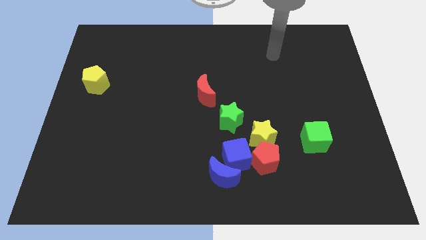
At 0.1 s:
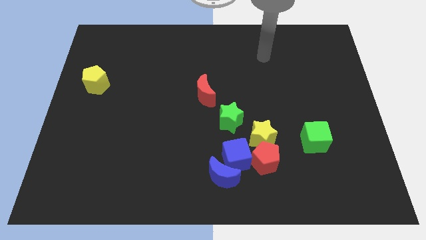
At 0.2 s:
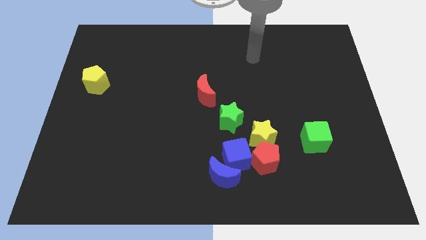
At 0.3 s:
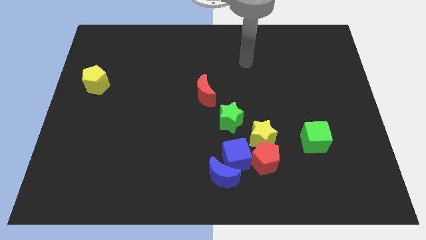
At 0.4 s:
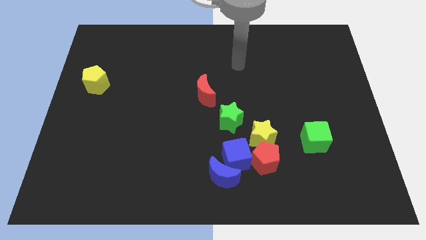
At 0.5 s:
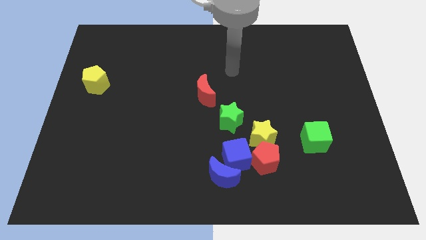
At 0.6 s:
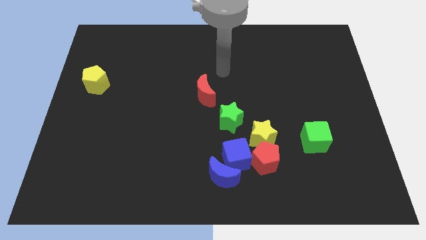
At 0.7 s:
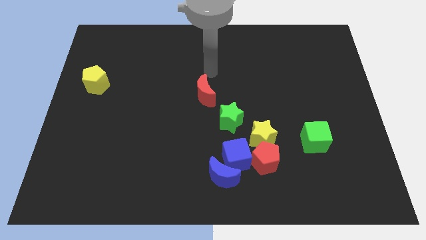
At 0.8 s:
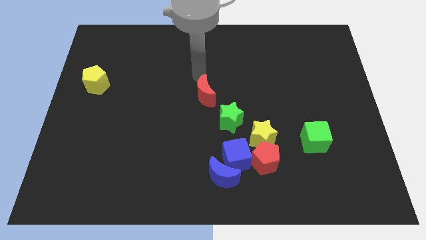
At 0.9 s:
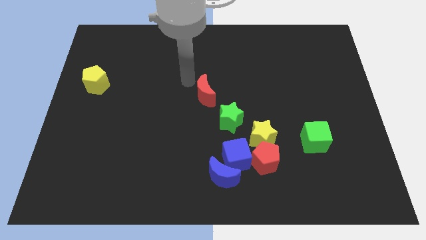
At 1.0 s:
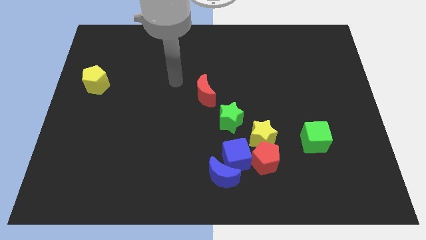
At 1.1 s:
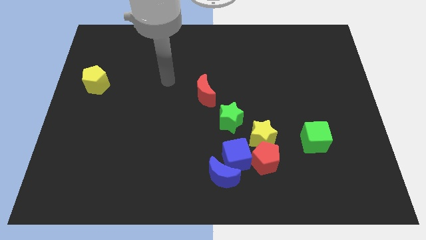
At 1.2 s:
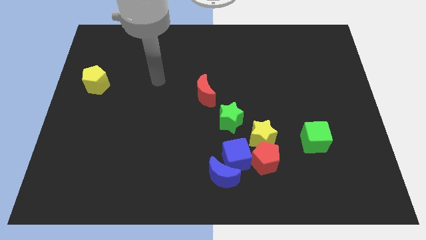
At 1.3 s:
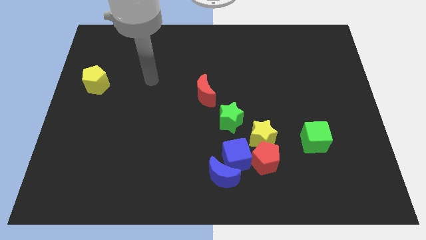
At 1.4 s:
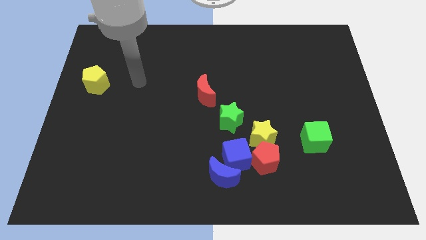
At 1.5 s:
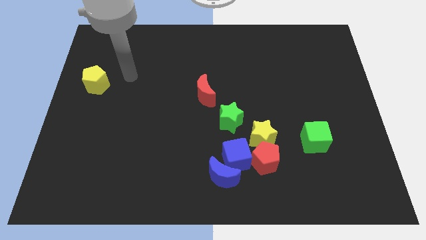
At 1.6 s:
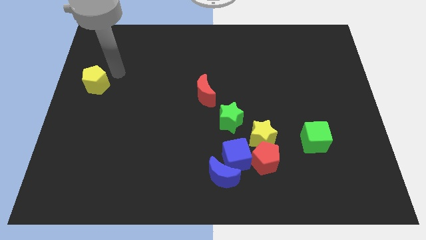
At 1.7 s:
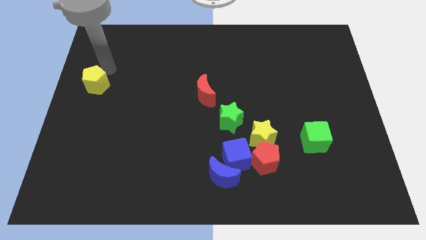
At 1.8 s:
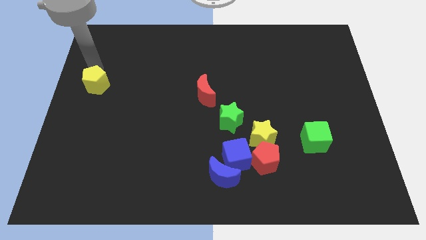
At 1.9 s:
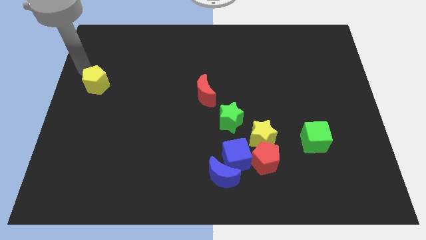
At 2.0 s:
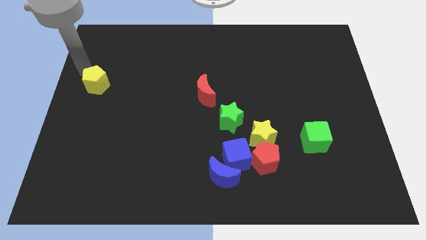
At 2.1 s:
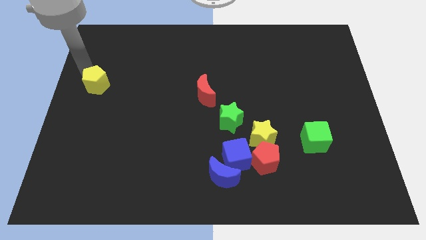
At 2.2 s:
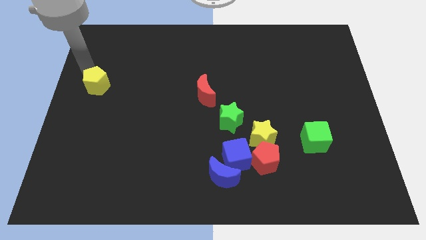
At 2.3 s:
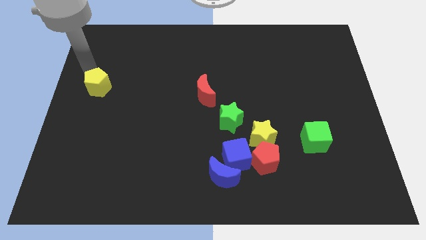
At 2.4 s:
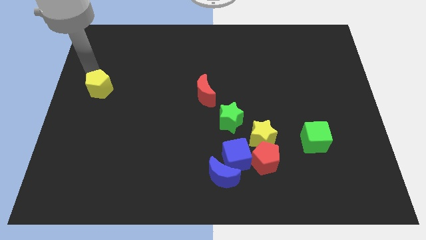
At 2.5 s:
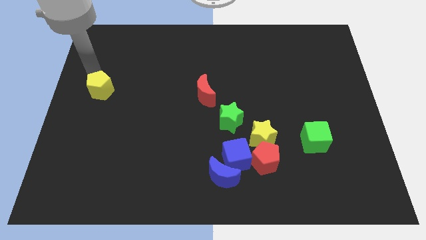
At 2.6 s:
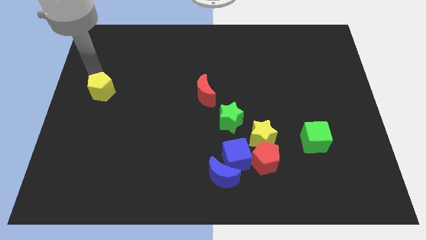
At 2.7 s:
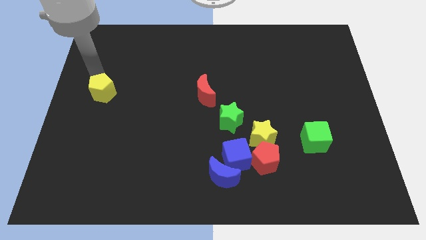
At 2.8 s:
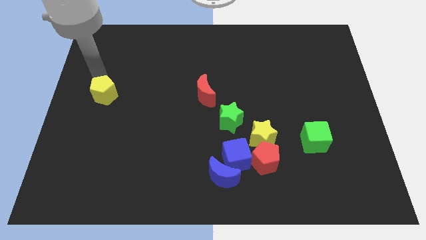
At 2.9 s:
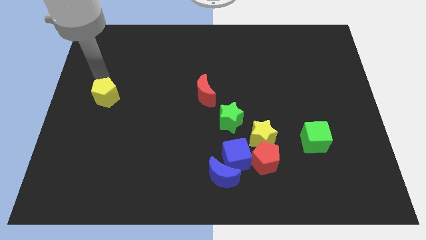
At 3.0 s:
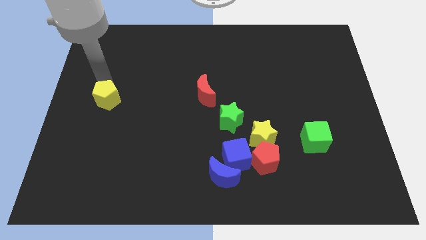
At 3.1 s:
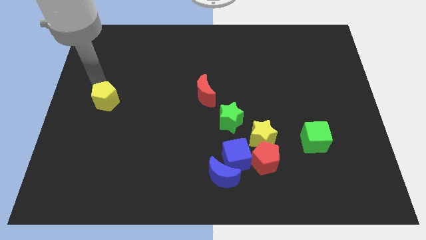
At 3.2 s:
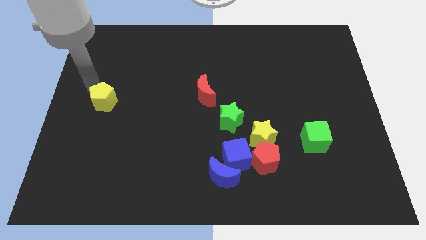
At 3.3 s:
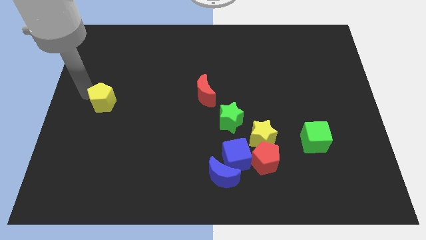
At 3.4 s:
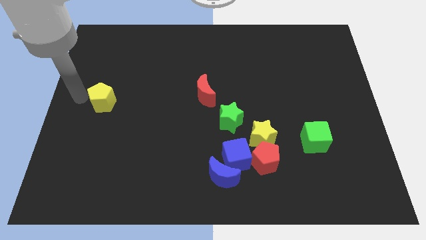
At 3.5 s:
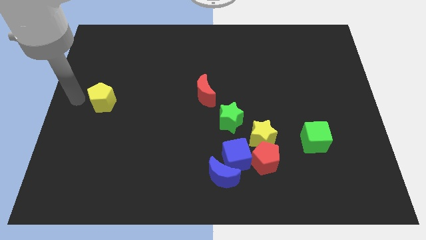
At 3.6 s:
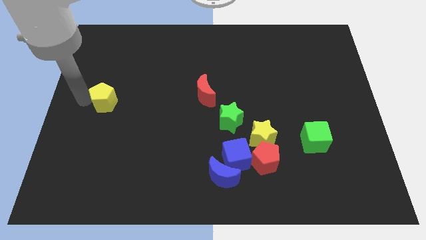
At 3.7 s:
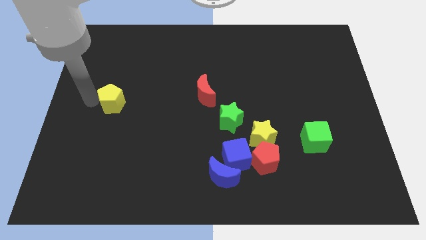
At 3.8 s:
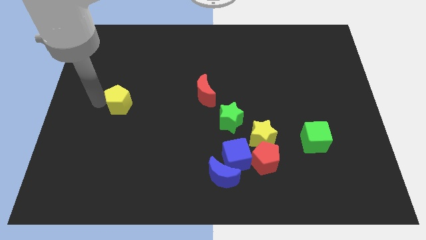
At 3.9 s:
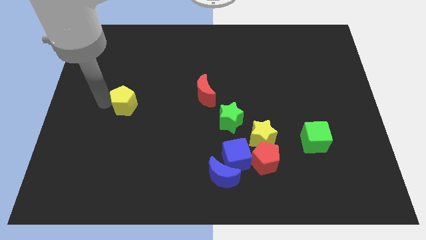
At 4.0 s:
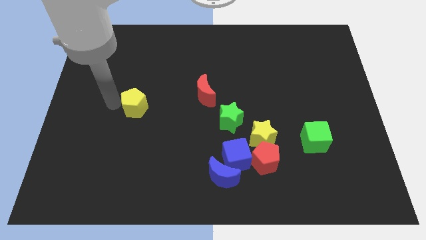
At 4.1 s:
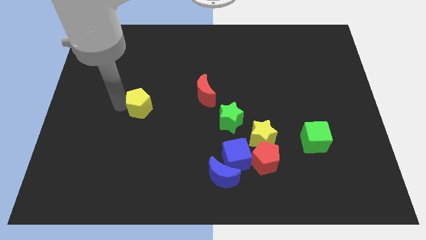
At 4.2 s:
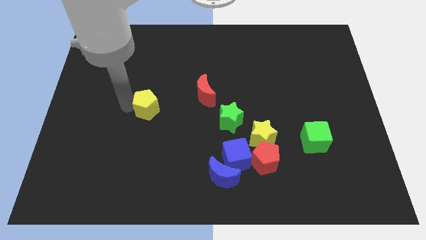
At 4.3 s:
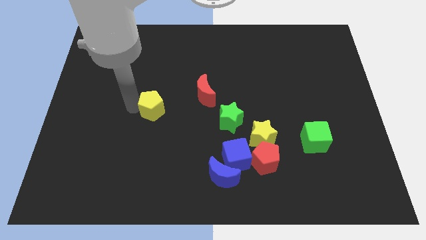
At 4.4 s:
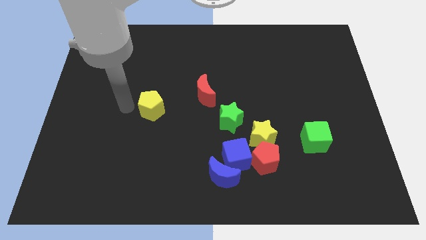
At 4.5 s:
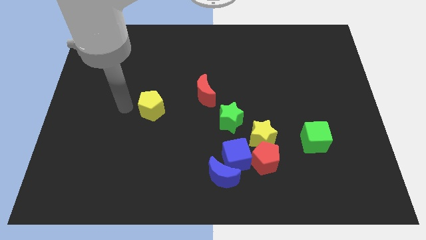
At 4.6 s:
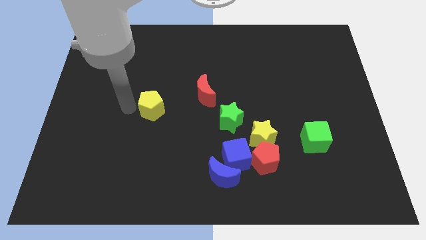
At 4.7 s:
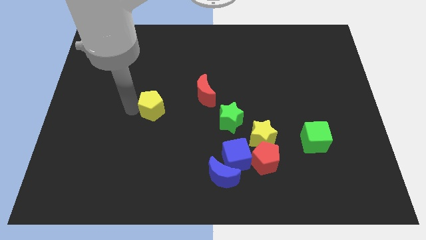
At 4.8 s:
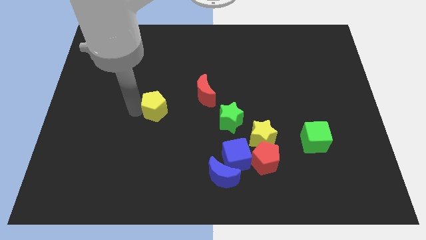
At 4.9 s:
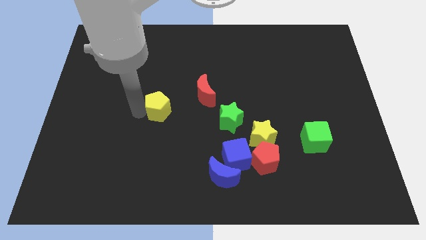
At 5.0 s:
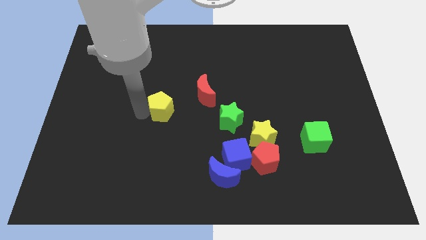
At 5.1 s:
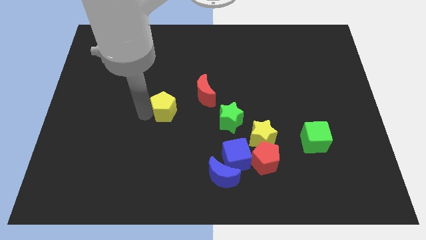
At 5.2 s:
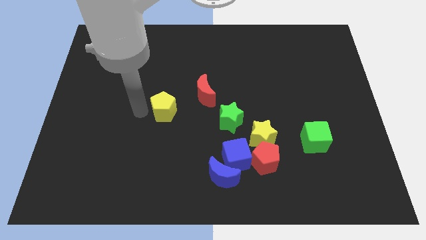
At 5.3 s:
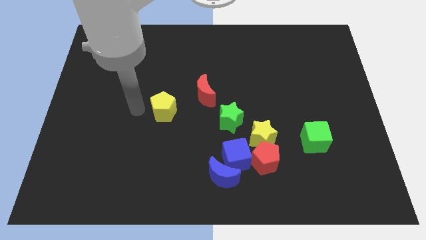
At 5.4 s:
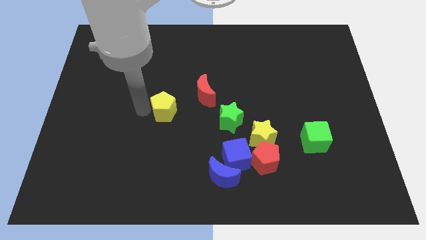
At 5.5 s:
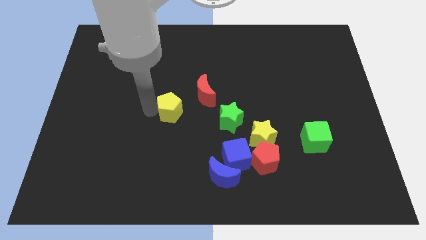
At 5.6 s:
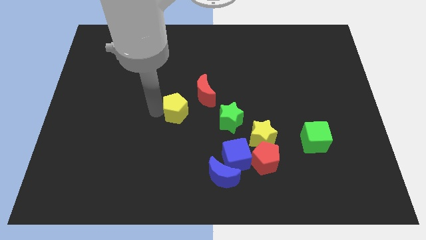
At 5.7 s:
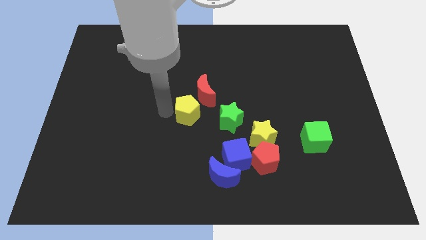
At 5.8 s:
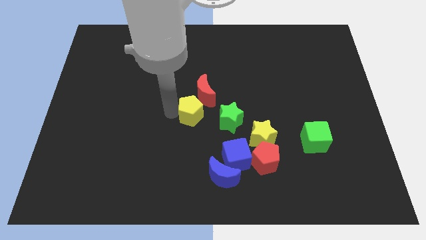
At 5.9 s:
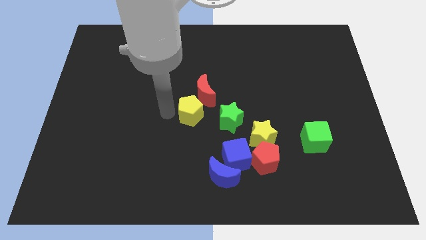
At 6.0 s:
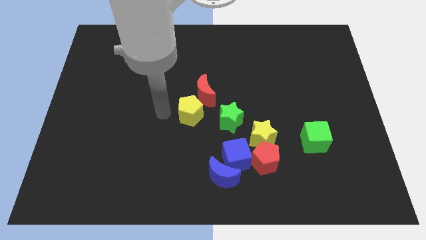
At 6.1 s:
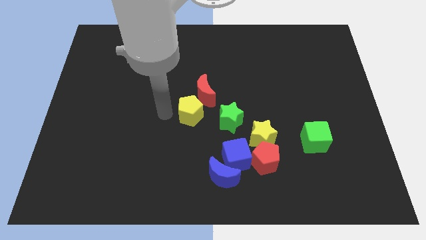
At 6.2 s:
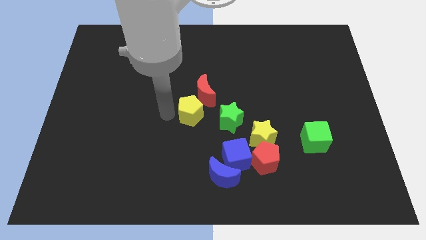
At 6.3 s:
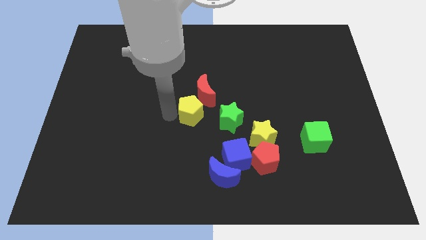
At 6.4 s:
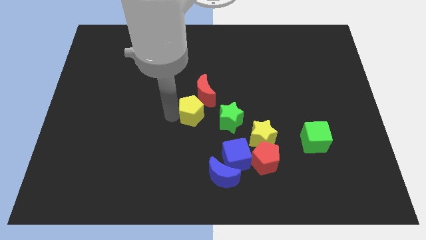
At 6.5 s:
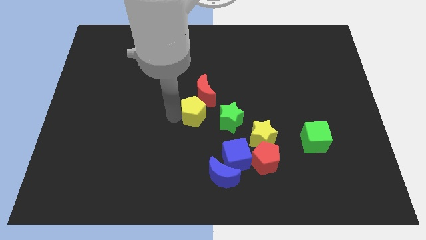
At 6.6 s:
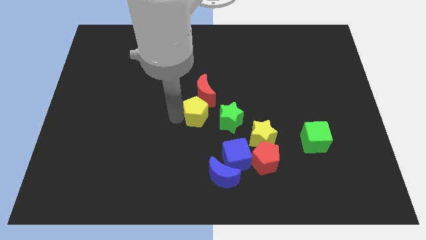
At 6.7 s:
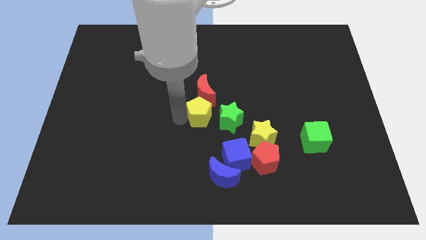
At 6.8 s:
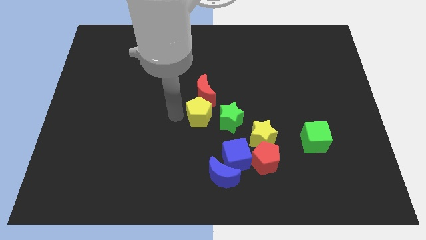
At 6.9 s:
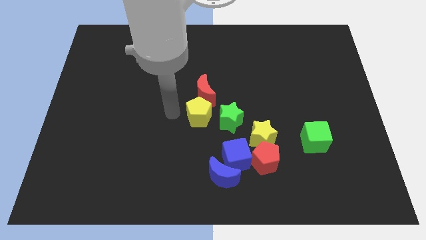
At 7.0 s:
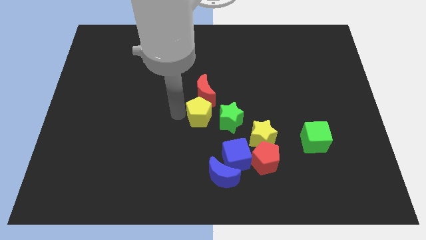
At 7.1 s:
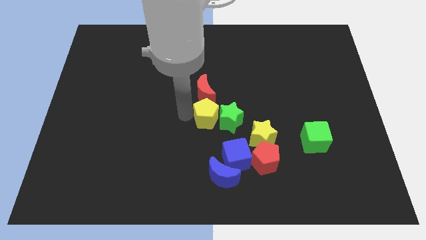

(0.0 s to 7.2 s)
move the yellow pentagon to the green star
